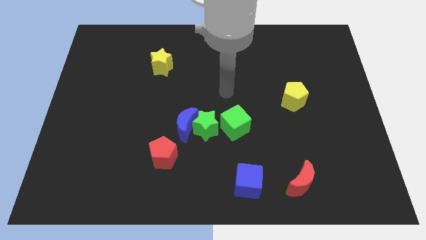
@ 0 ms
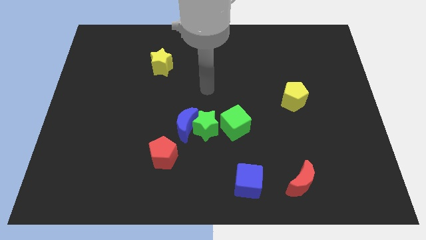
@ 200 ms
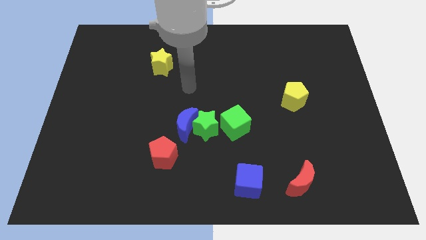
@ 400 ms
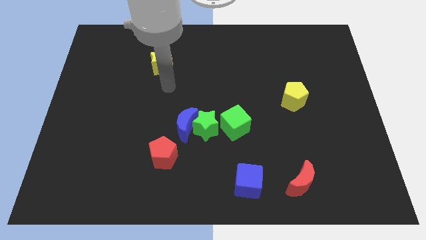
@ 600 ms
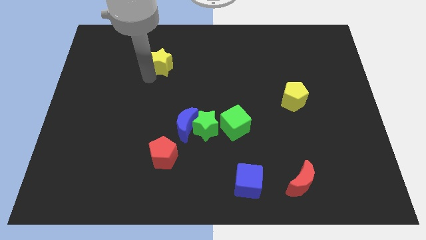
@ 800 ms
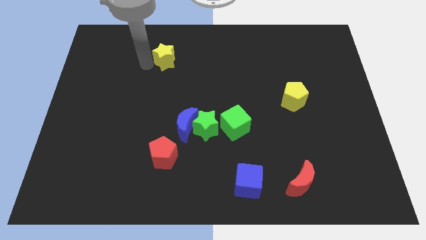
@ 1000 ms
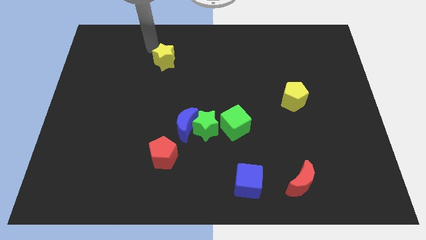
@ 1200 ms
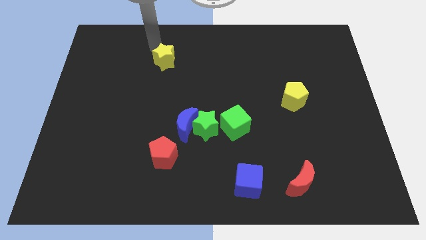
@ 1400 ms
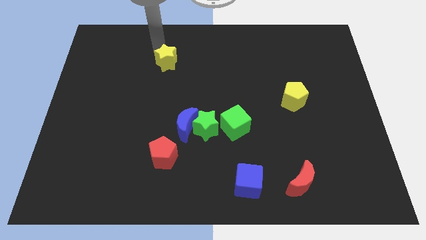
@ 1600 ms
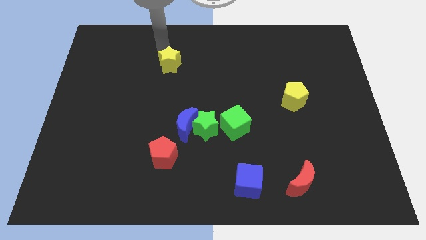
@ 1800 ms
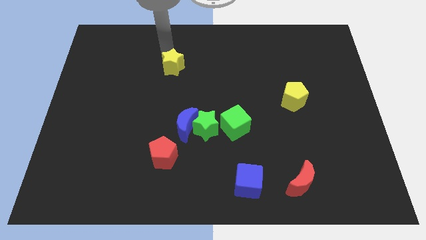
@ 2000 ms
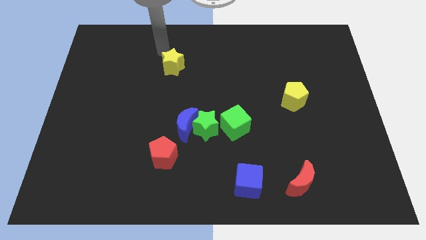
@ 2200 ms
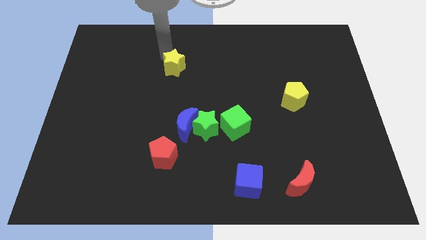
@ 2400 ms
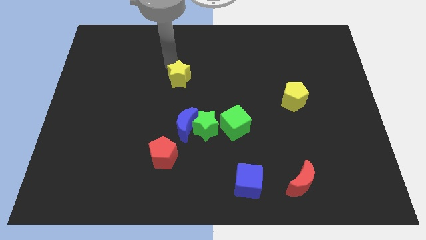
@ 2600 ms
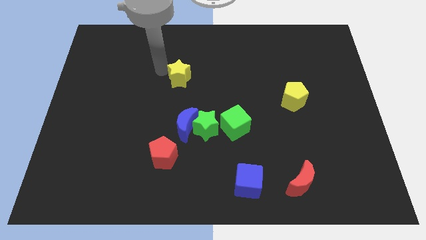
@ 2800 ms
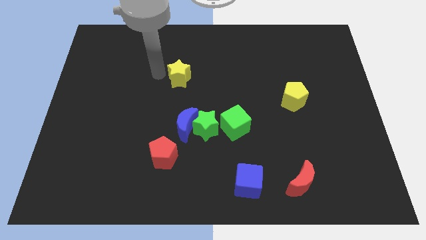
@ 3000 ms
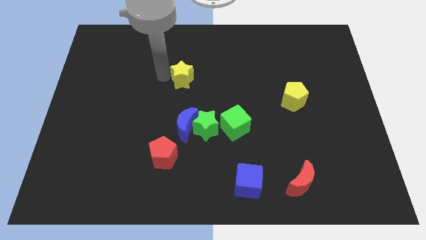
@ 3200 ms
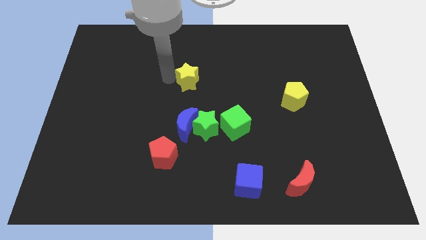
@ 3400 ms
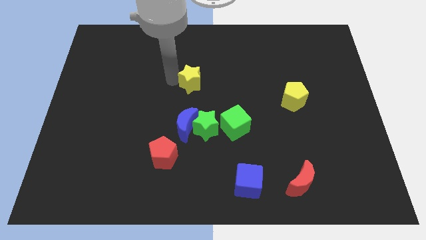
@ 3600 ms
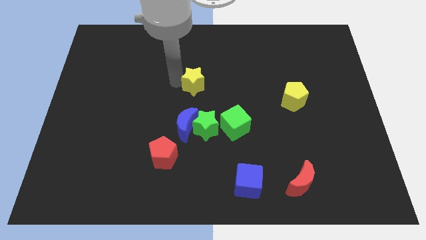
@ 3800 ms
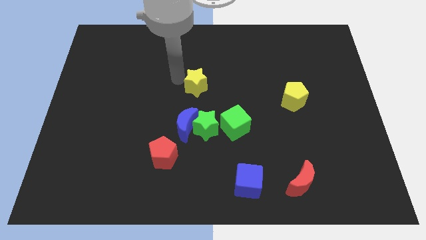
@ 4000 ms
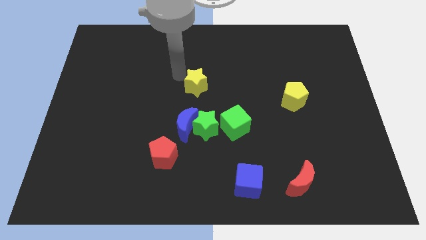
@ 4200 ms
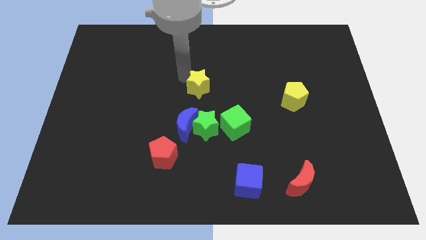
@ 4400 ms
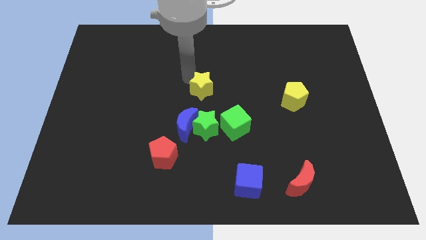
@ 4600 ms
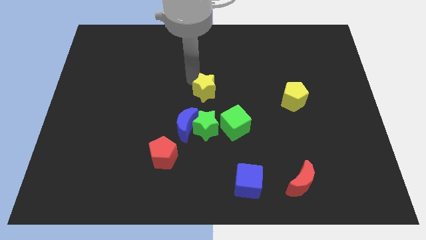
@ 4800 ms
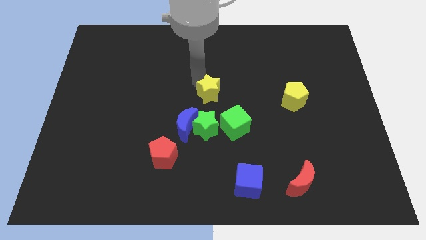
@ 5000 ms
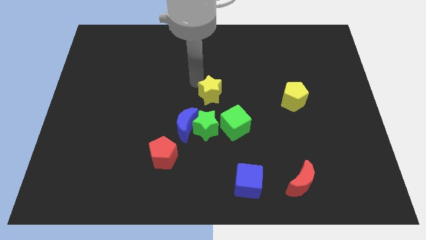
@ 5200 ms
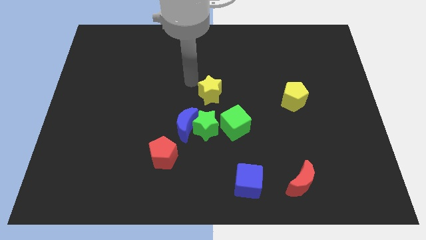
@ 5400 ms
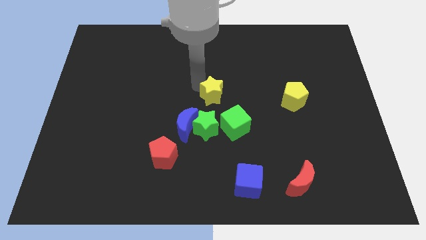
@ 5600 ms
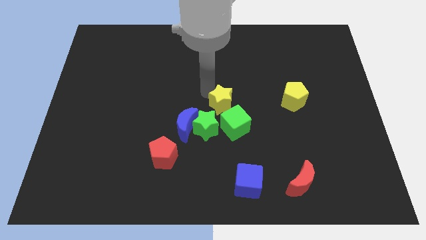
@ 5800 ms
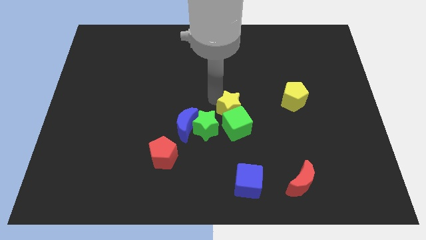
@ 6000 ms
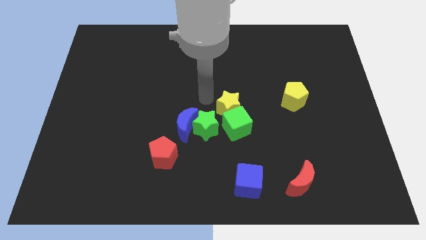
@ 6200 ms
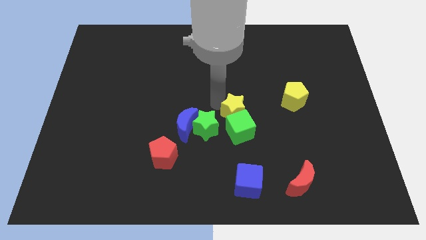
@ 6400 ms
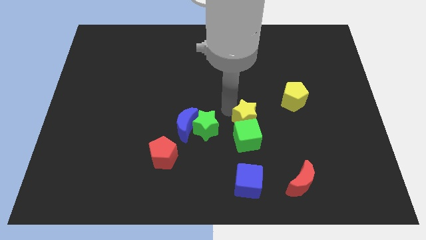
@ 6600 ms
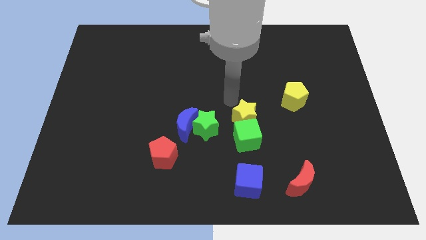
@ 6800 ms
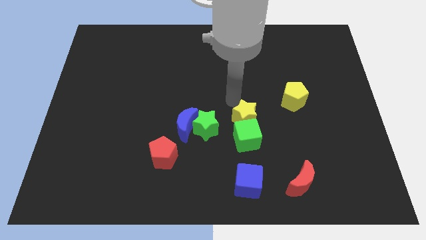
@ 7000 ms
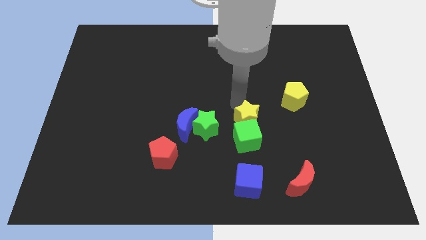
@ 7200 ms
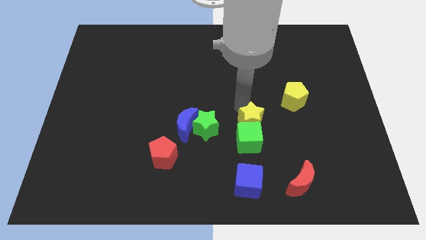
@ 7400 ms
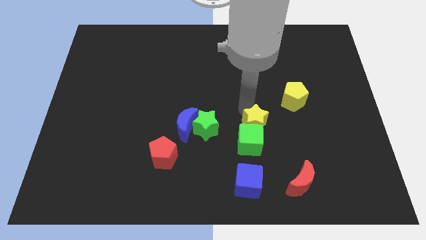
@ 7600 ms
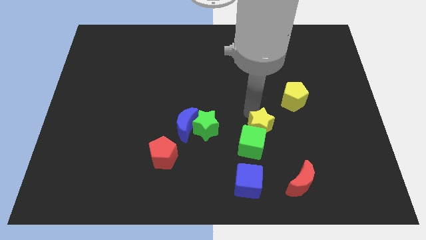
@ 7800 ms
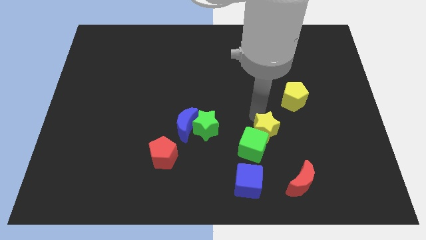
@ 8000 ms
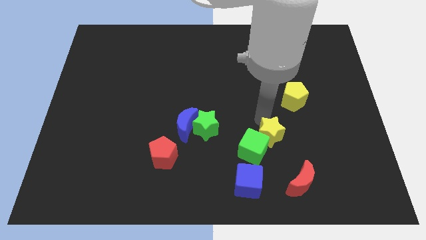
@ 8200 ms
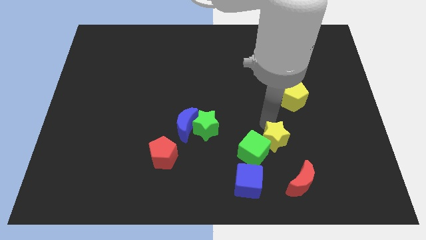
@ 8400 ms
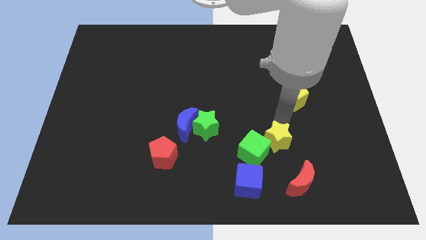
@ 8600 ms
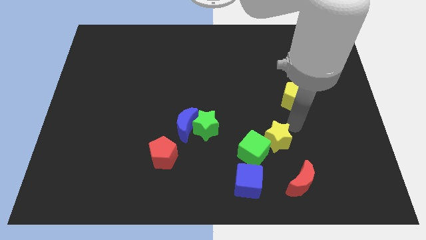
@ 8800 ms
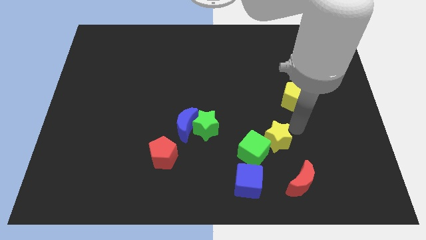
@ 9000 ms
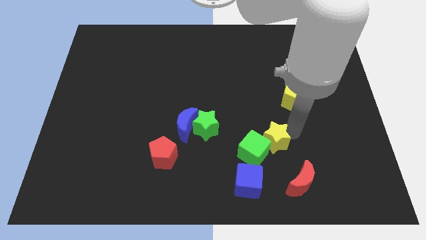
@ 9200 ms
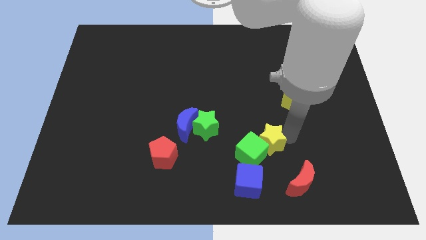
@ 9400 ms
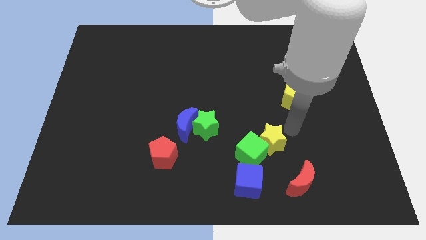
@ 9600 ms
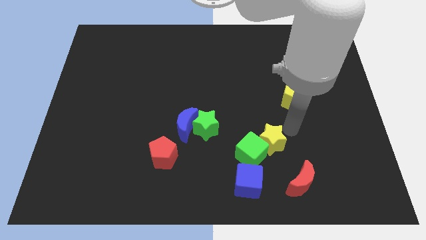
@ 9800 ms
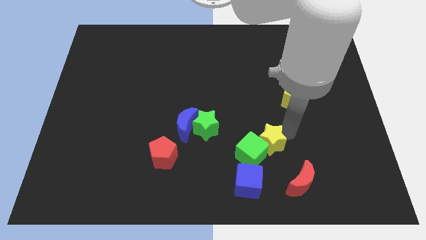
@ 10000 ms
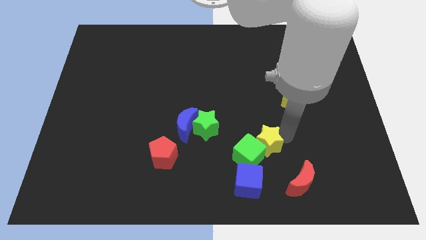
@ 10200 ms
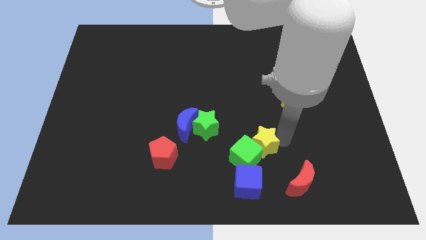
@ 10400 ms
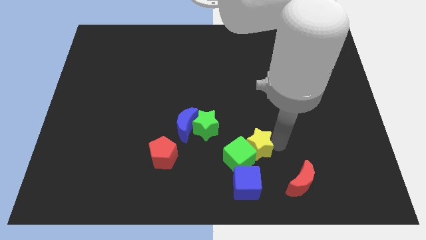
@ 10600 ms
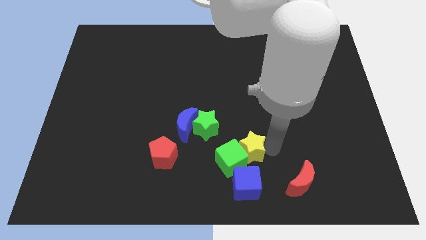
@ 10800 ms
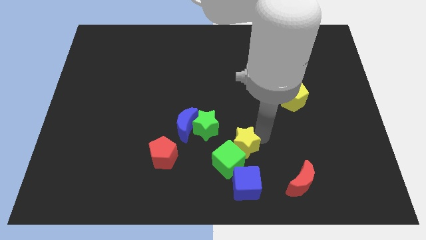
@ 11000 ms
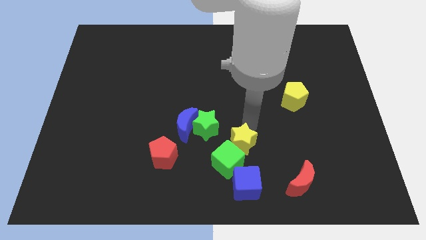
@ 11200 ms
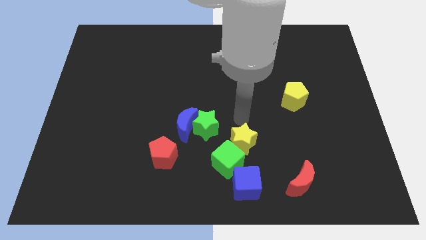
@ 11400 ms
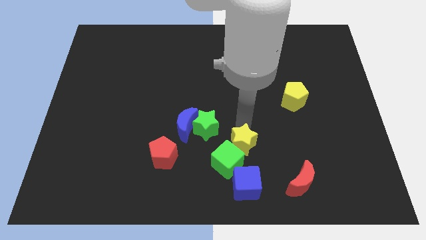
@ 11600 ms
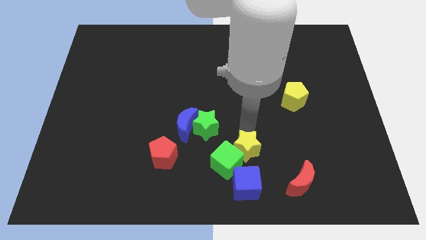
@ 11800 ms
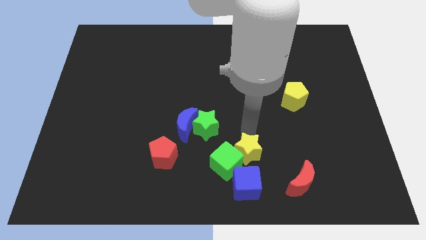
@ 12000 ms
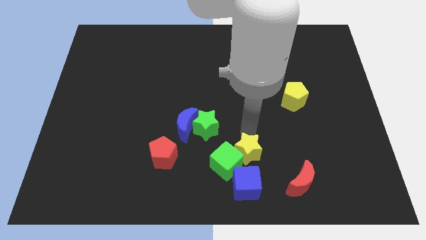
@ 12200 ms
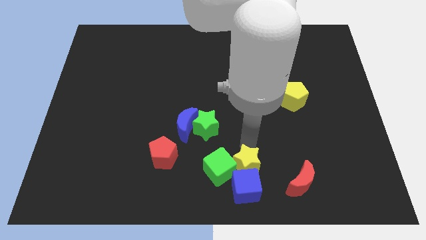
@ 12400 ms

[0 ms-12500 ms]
put the yellow star close to the blue cube
